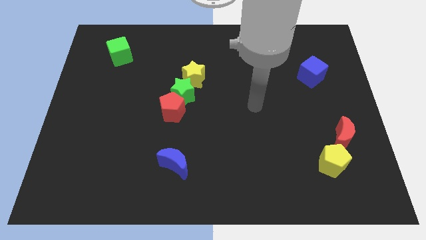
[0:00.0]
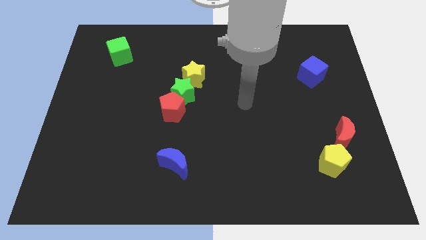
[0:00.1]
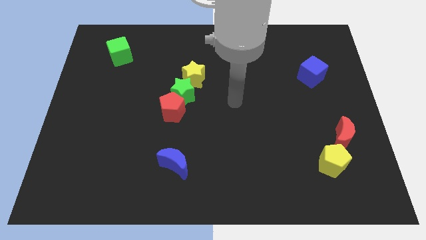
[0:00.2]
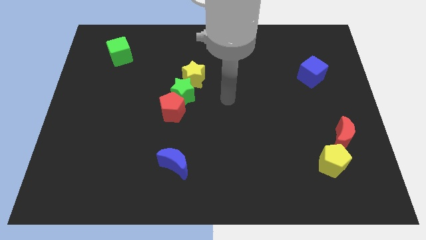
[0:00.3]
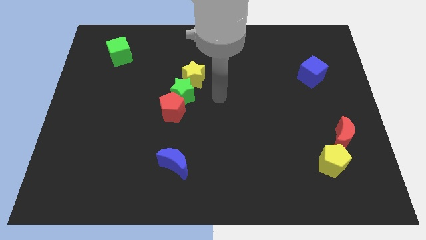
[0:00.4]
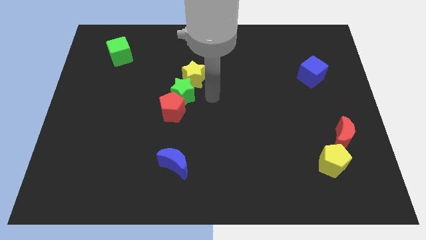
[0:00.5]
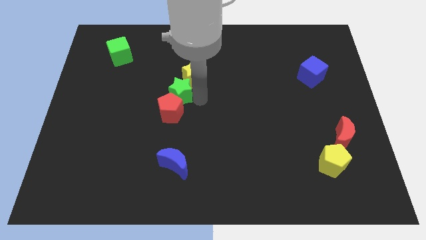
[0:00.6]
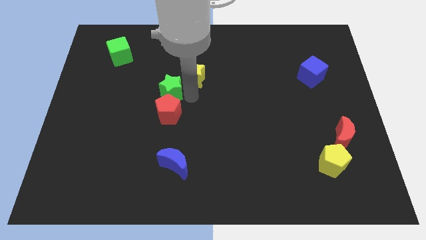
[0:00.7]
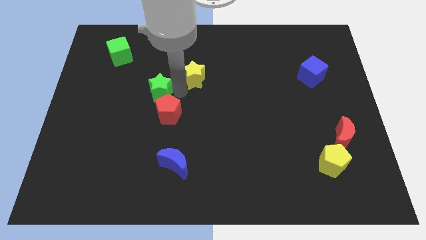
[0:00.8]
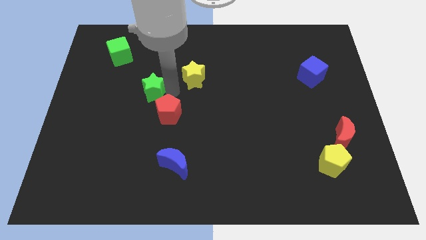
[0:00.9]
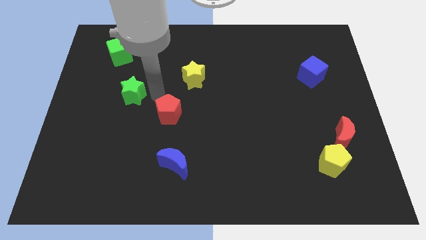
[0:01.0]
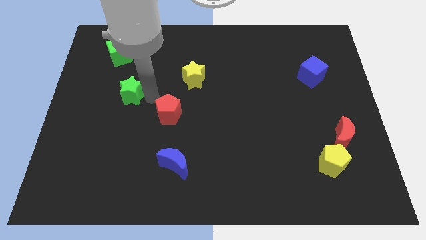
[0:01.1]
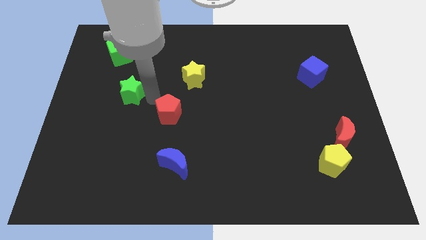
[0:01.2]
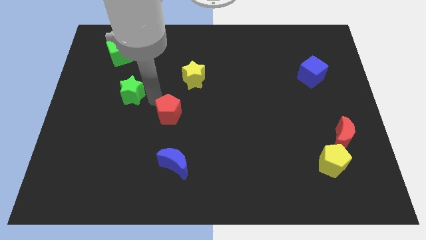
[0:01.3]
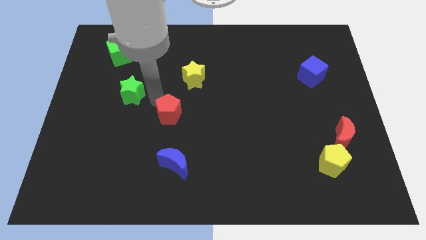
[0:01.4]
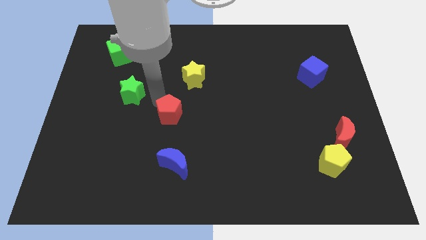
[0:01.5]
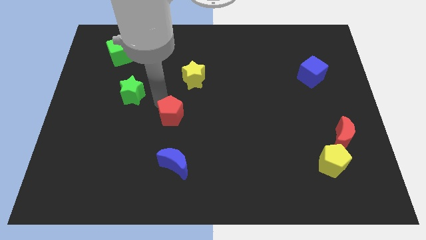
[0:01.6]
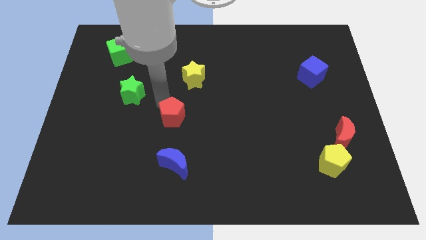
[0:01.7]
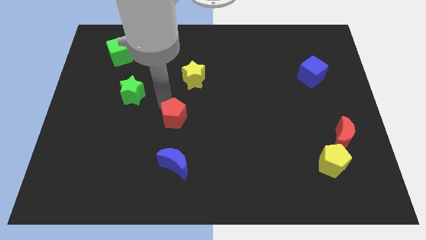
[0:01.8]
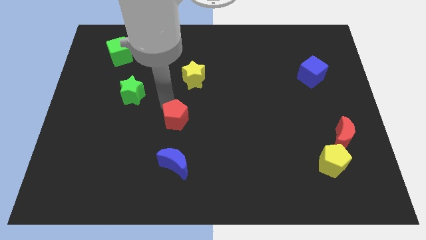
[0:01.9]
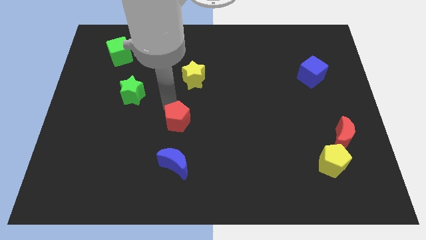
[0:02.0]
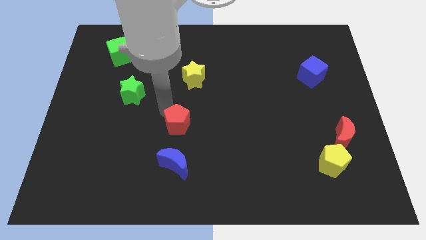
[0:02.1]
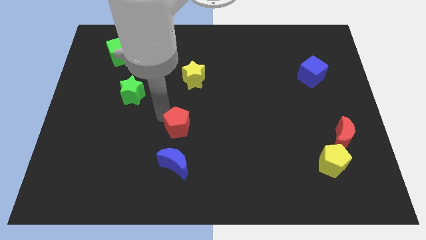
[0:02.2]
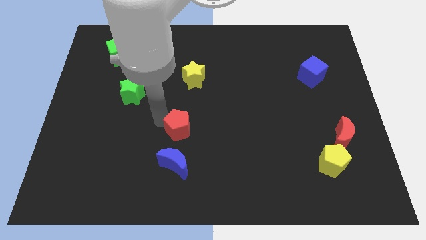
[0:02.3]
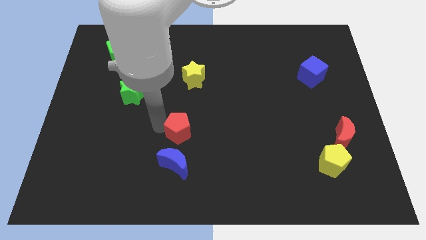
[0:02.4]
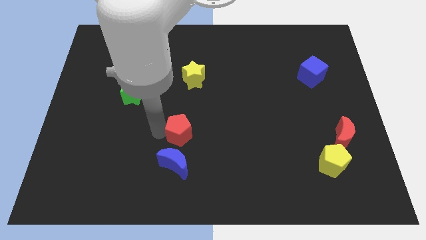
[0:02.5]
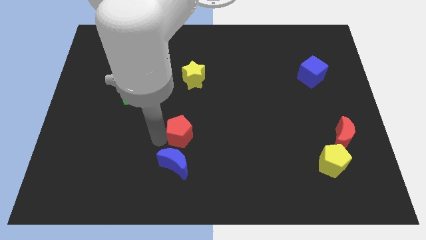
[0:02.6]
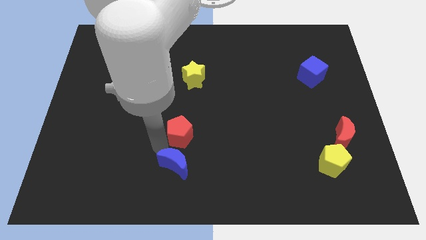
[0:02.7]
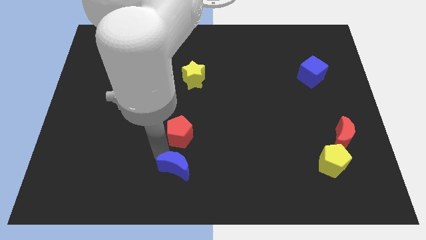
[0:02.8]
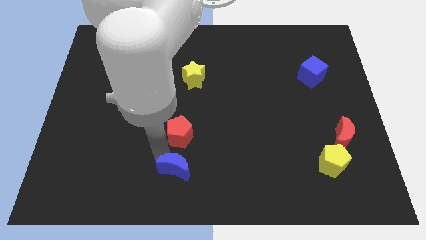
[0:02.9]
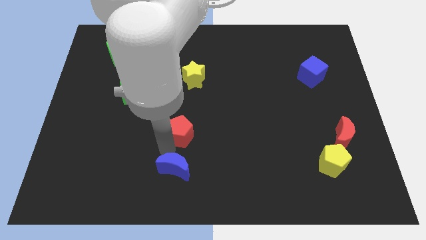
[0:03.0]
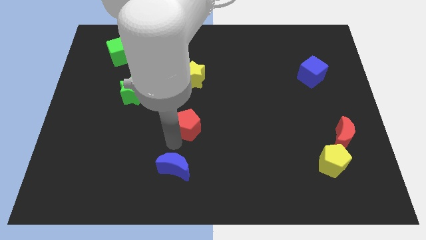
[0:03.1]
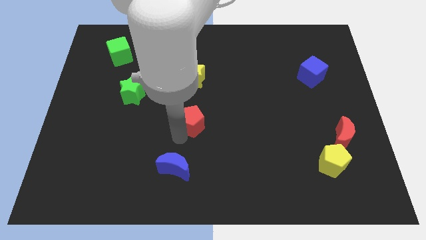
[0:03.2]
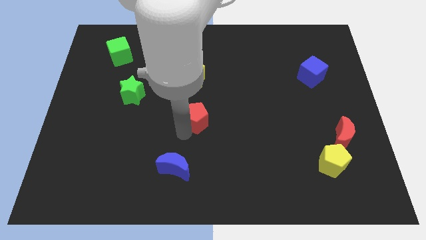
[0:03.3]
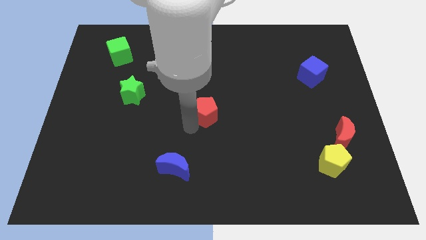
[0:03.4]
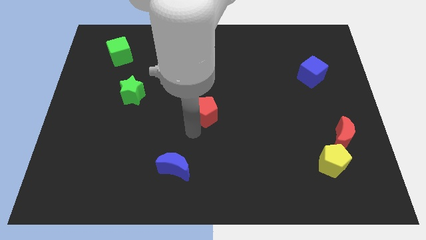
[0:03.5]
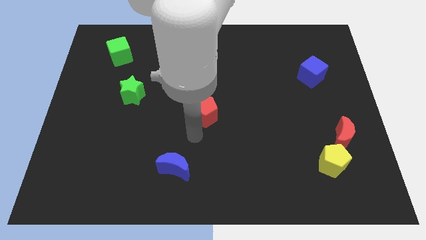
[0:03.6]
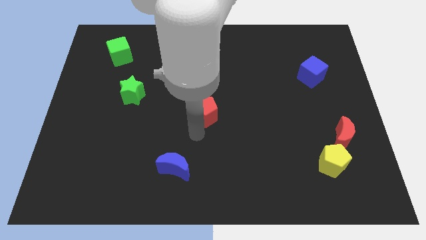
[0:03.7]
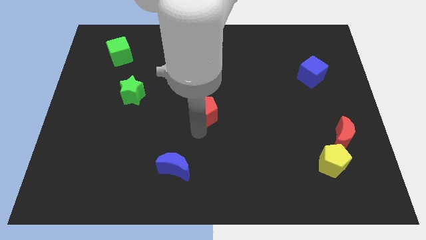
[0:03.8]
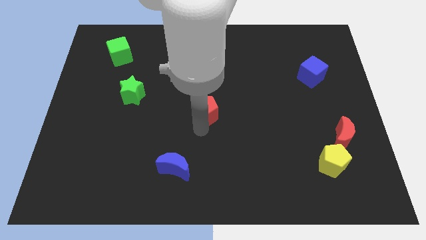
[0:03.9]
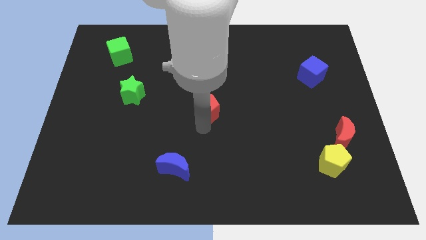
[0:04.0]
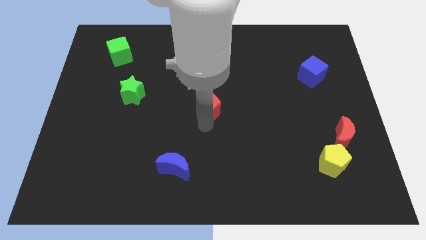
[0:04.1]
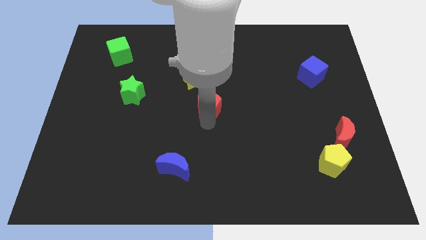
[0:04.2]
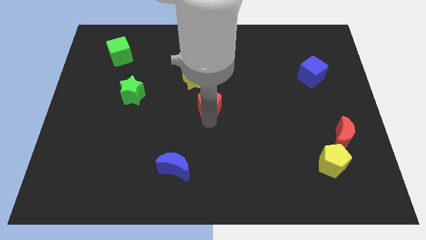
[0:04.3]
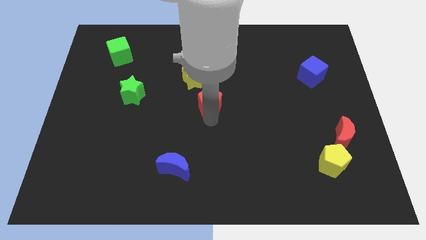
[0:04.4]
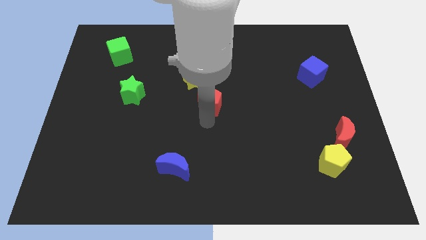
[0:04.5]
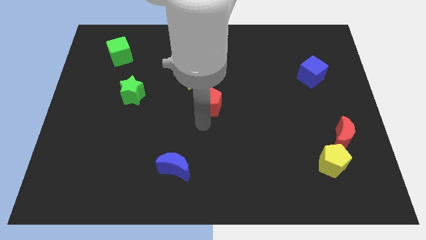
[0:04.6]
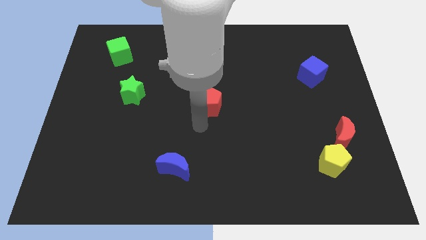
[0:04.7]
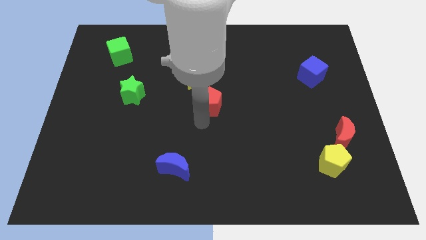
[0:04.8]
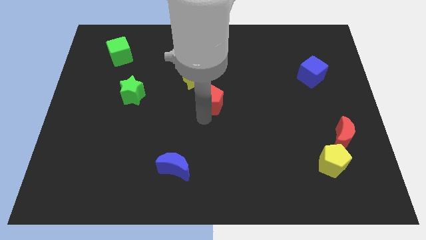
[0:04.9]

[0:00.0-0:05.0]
slightly move the red pentagon upwards and to the right

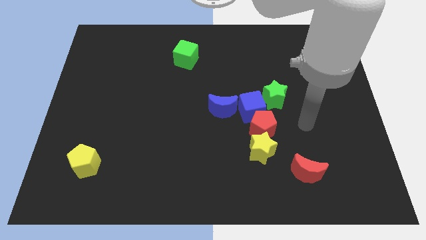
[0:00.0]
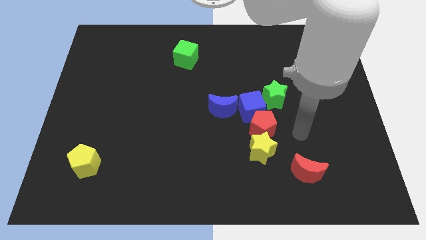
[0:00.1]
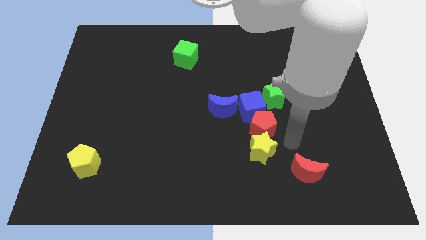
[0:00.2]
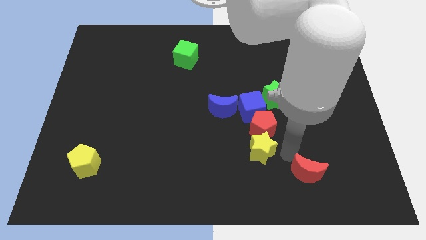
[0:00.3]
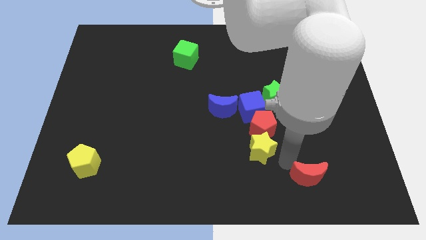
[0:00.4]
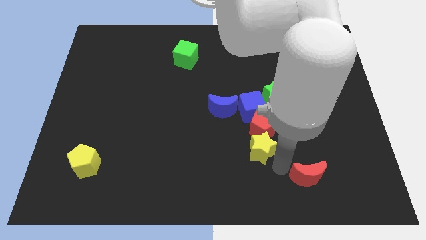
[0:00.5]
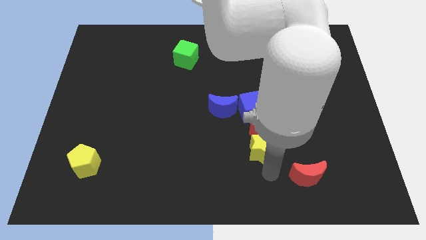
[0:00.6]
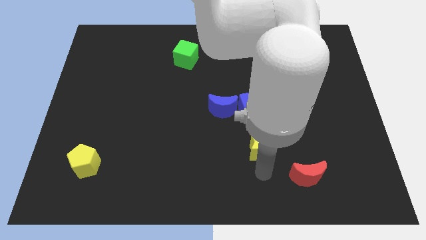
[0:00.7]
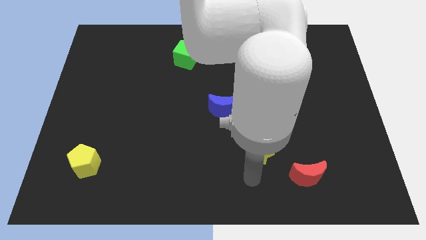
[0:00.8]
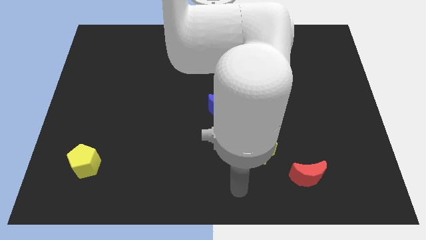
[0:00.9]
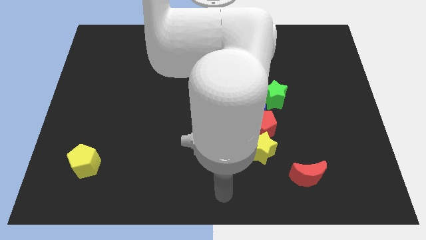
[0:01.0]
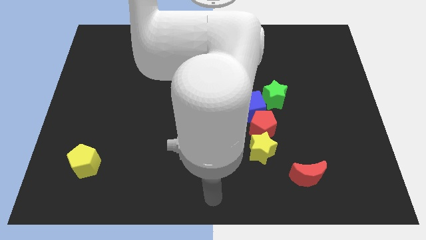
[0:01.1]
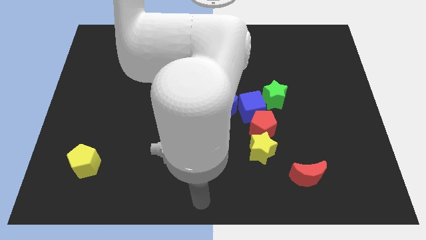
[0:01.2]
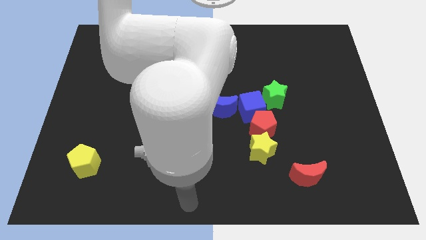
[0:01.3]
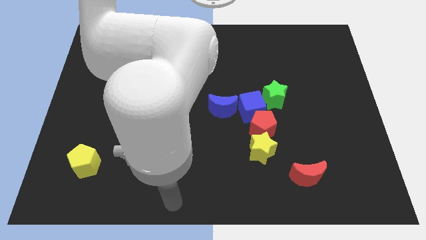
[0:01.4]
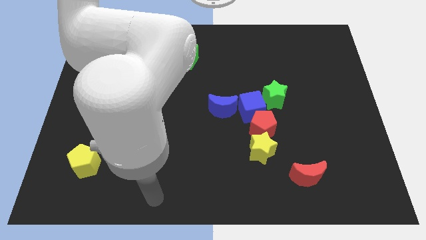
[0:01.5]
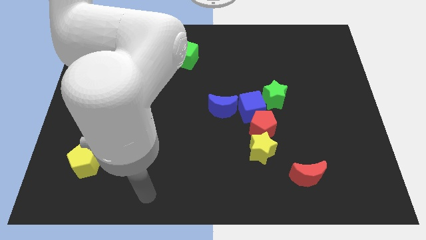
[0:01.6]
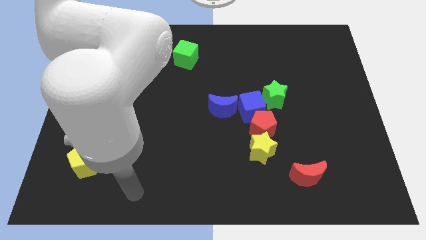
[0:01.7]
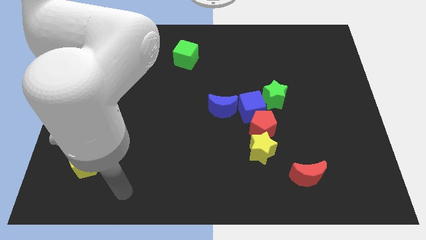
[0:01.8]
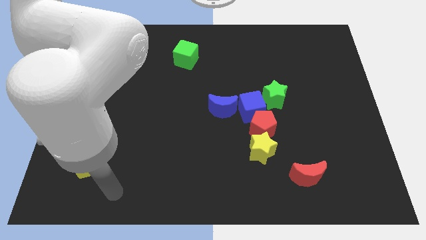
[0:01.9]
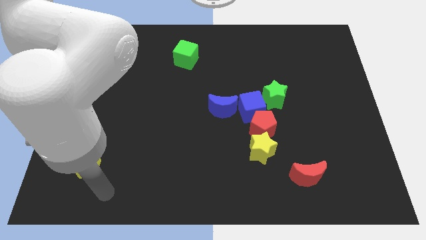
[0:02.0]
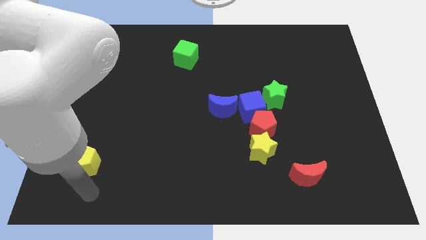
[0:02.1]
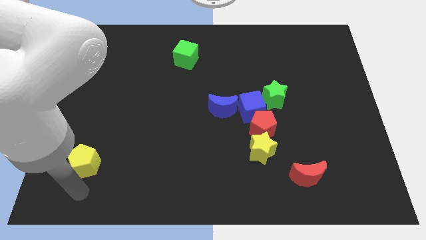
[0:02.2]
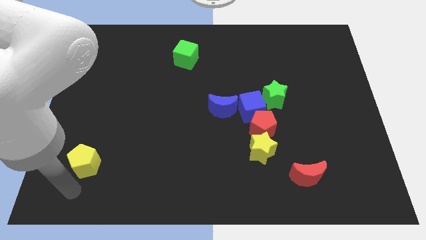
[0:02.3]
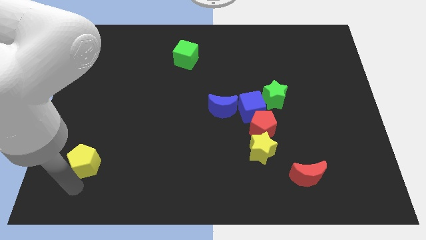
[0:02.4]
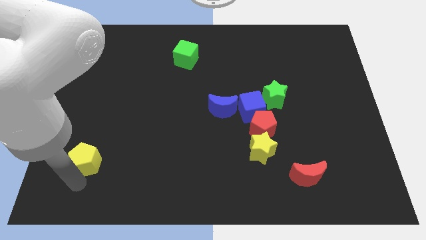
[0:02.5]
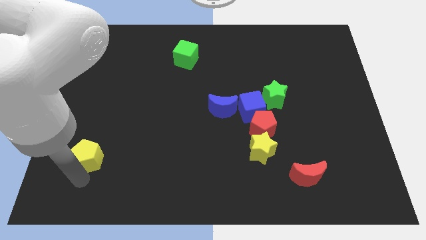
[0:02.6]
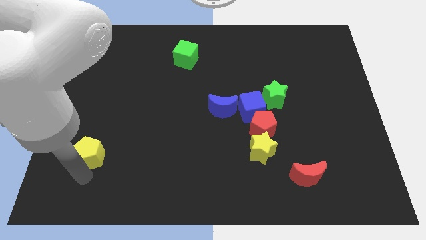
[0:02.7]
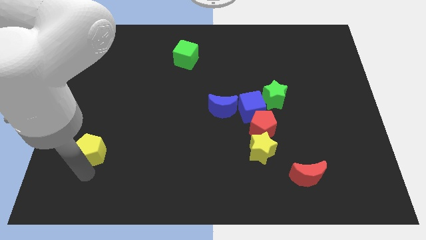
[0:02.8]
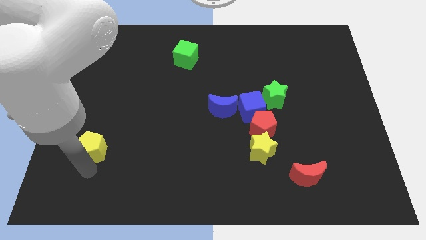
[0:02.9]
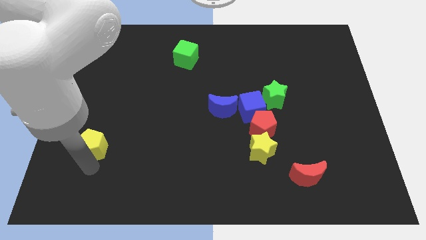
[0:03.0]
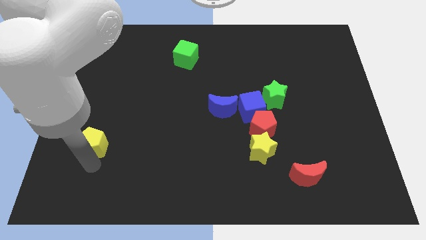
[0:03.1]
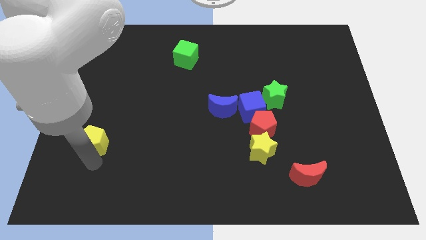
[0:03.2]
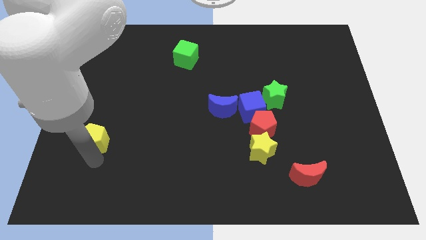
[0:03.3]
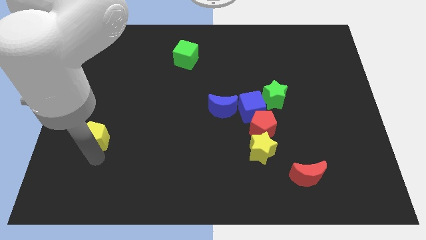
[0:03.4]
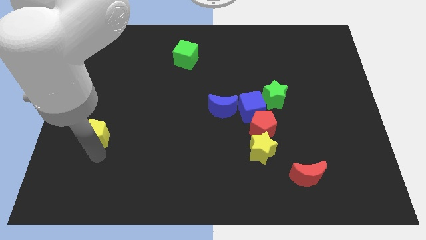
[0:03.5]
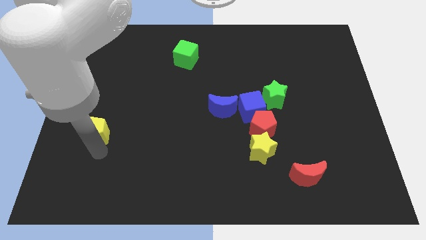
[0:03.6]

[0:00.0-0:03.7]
slightly slide the yellow pentagon up
